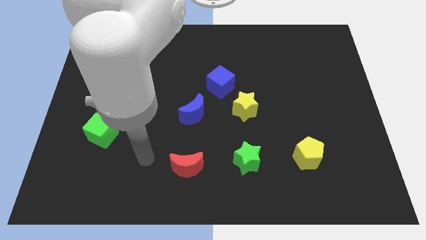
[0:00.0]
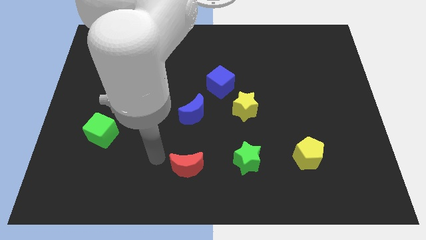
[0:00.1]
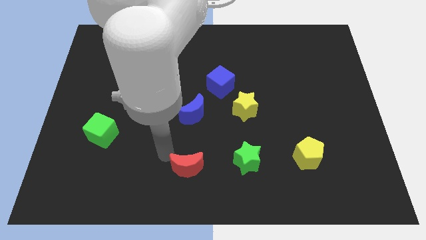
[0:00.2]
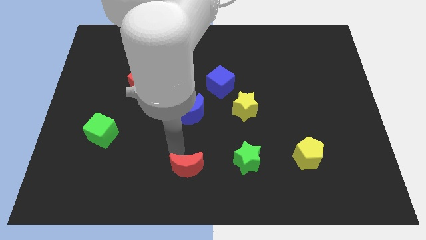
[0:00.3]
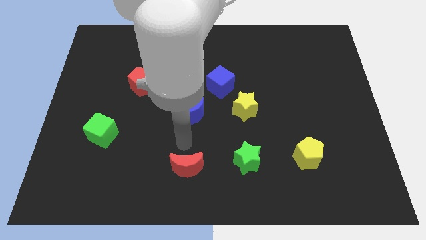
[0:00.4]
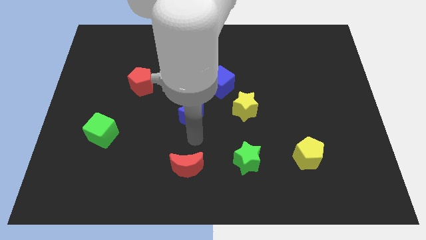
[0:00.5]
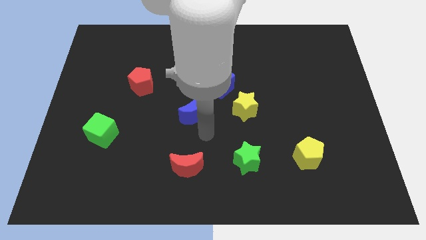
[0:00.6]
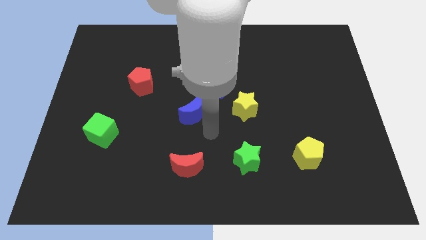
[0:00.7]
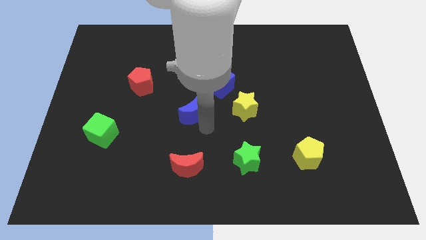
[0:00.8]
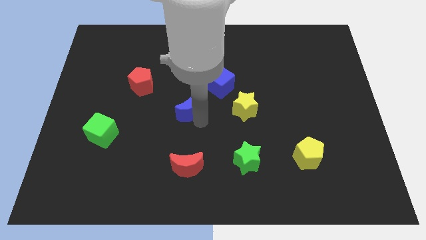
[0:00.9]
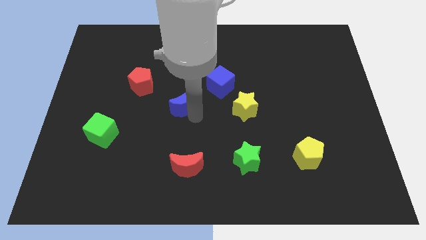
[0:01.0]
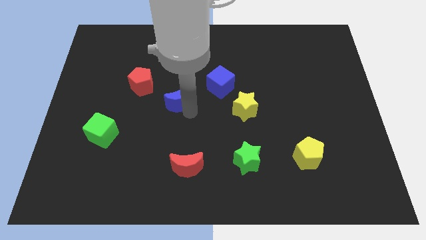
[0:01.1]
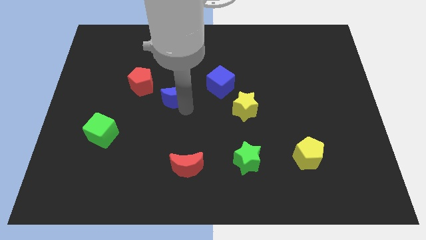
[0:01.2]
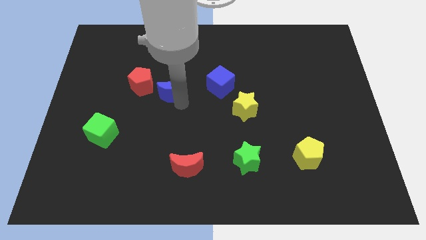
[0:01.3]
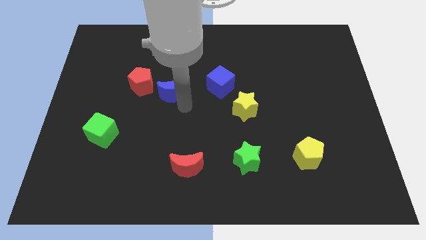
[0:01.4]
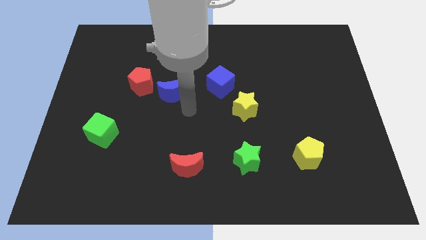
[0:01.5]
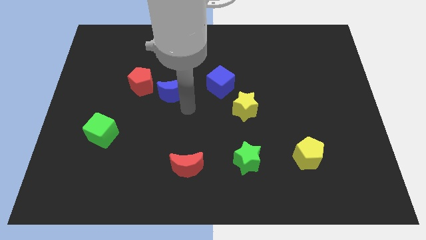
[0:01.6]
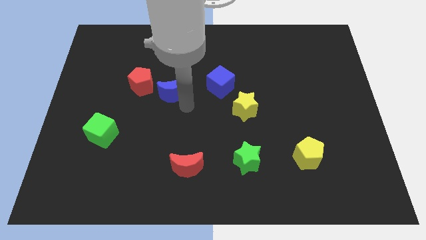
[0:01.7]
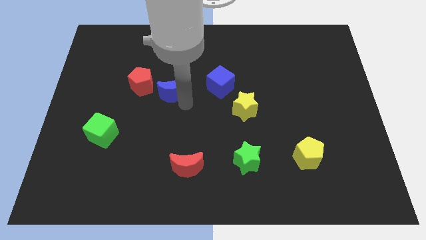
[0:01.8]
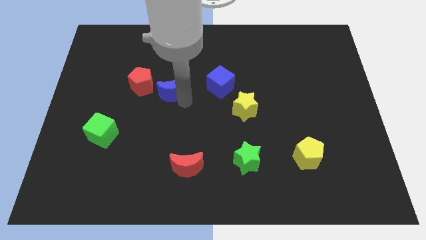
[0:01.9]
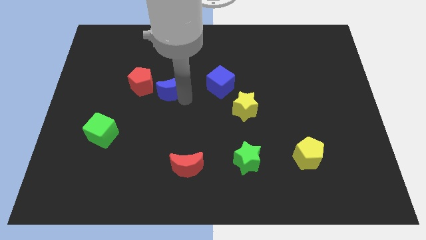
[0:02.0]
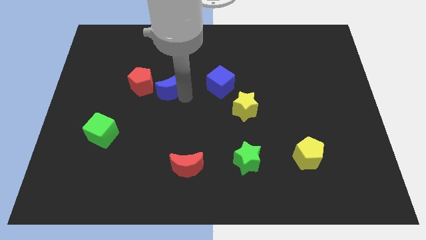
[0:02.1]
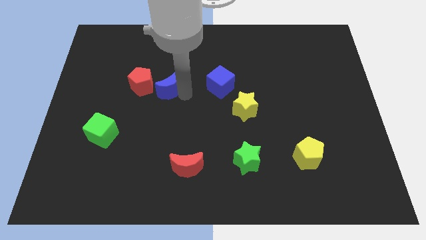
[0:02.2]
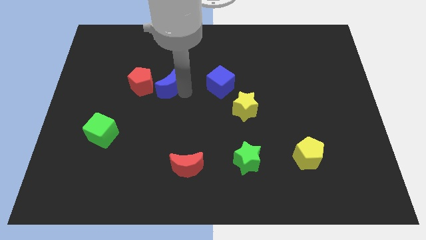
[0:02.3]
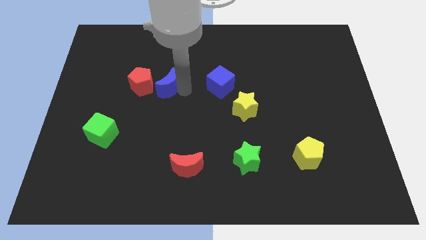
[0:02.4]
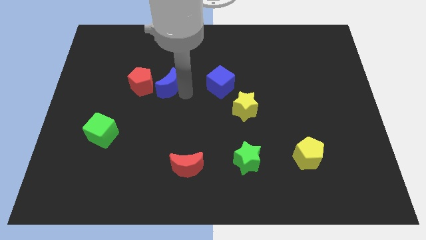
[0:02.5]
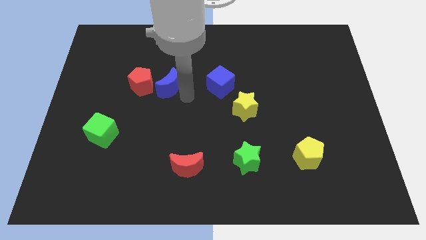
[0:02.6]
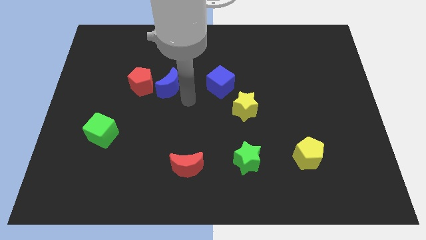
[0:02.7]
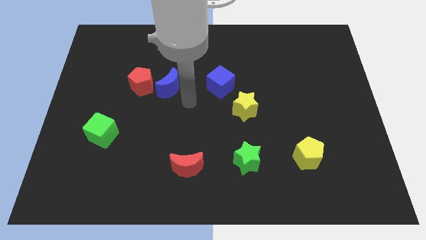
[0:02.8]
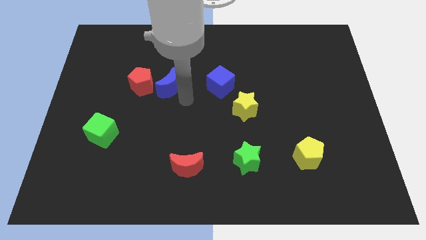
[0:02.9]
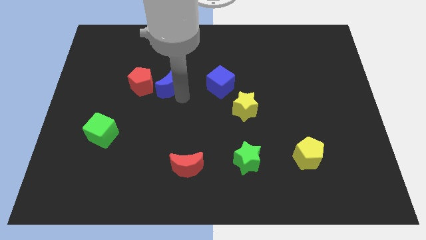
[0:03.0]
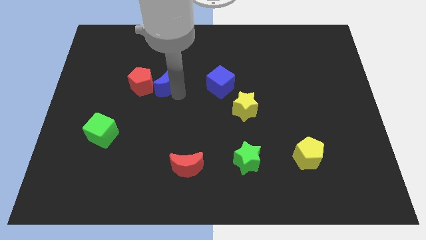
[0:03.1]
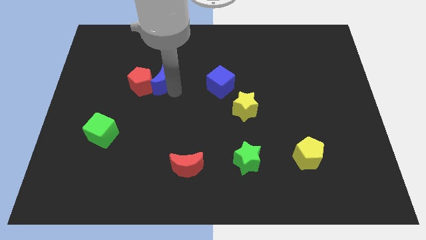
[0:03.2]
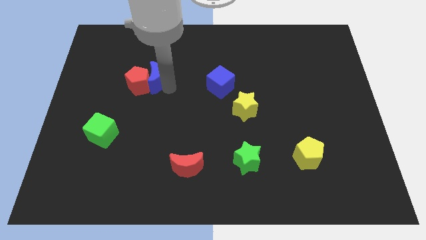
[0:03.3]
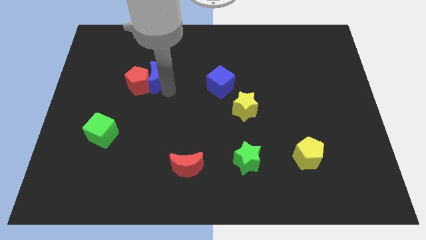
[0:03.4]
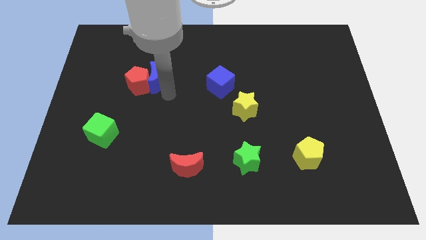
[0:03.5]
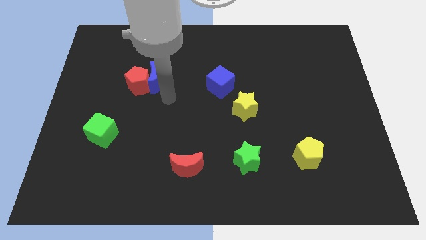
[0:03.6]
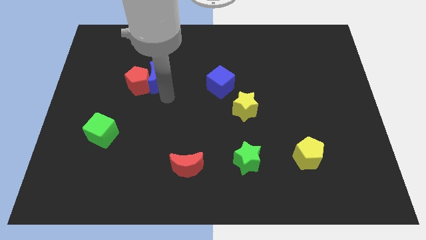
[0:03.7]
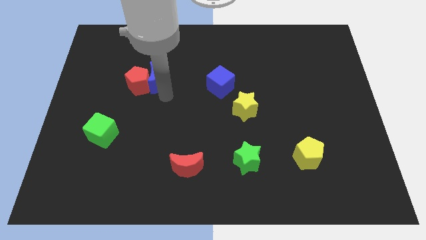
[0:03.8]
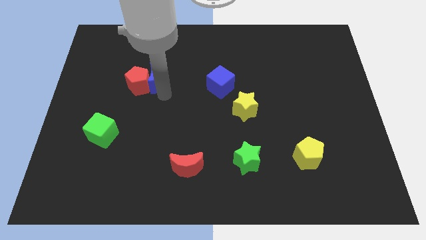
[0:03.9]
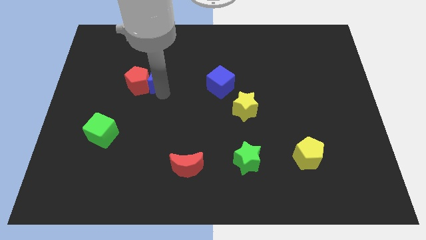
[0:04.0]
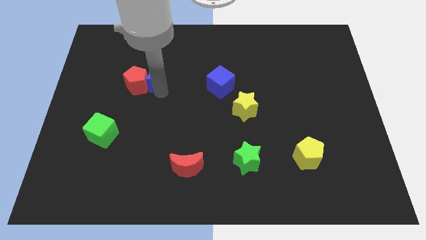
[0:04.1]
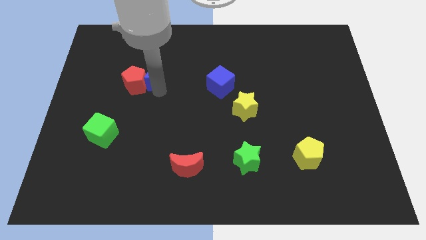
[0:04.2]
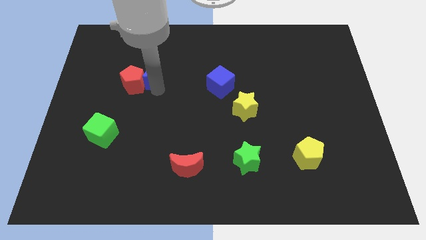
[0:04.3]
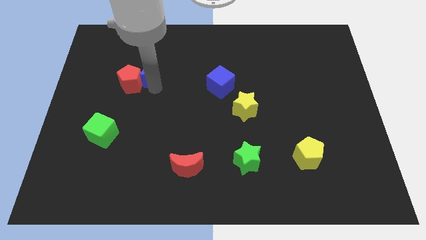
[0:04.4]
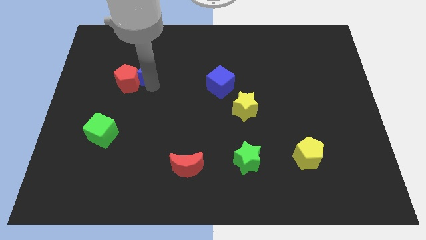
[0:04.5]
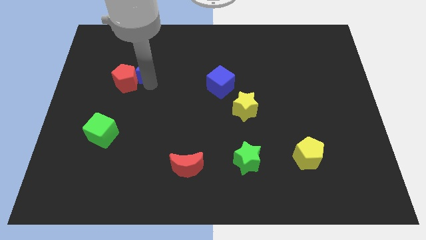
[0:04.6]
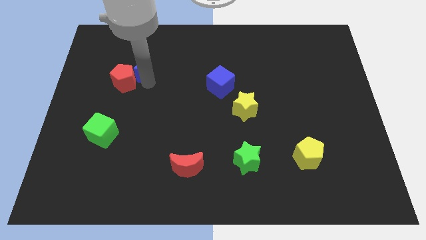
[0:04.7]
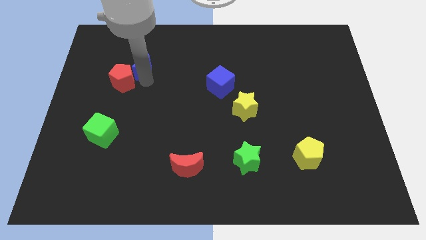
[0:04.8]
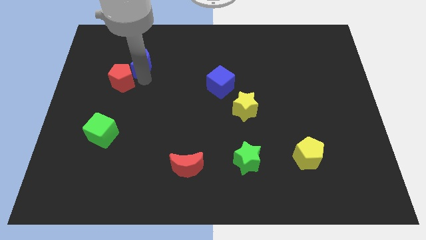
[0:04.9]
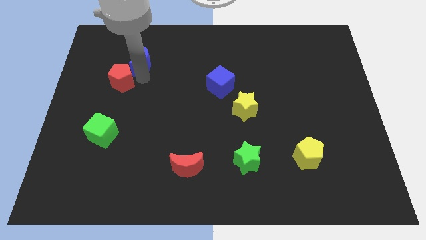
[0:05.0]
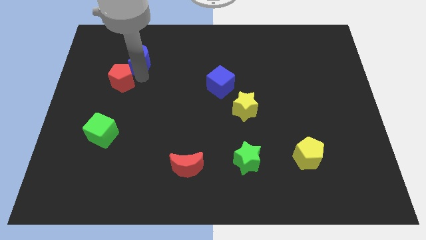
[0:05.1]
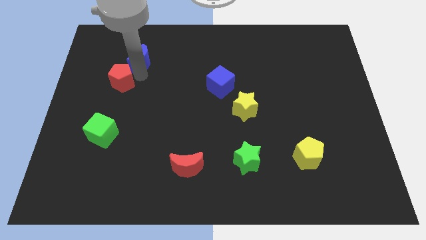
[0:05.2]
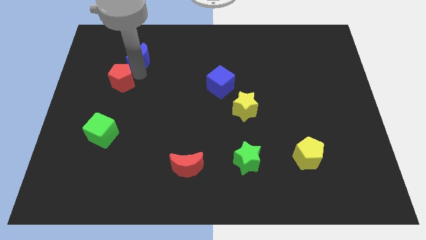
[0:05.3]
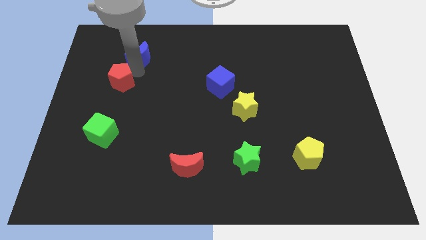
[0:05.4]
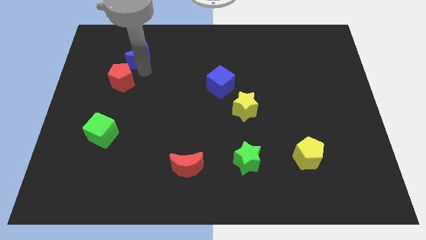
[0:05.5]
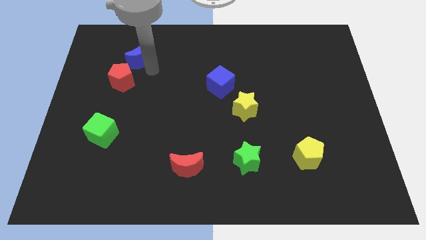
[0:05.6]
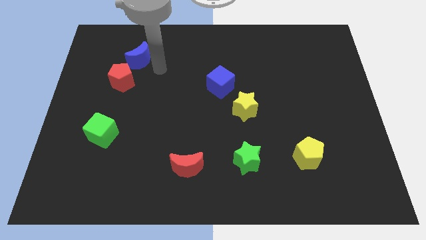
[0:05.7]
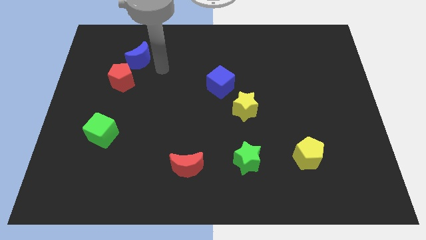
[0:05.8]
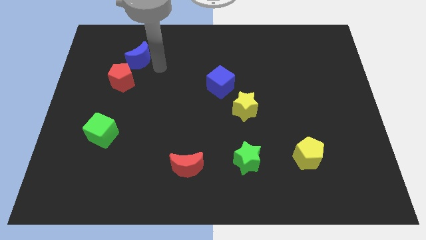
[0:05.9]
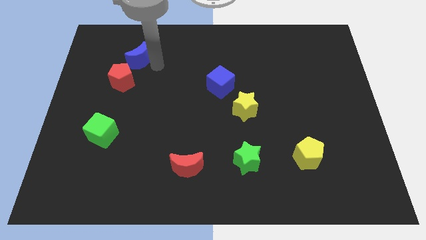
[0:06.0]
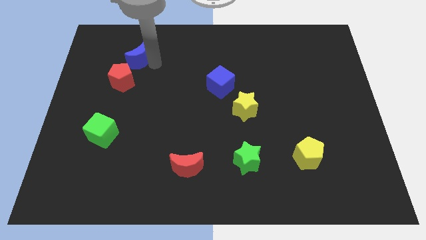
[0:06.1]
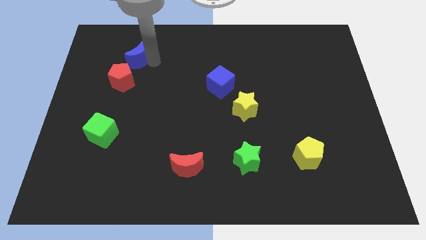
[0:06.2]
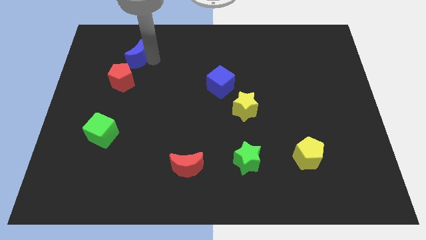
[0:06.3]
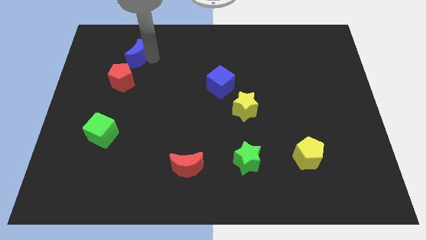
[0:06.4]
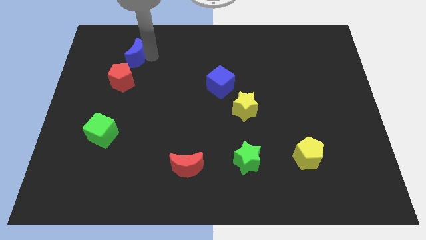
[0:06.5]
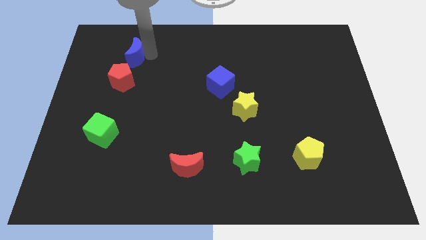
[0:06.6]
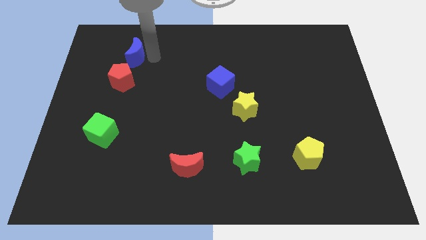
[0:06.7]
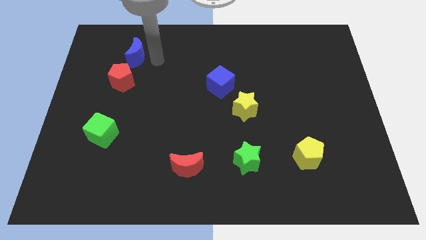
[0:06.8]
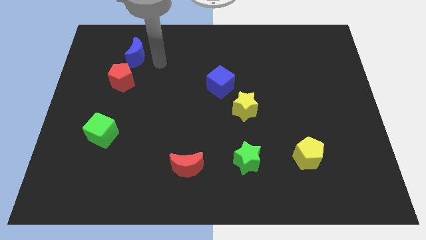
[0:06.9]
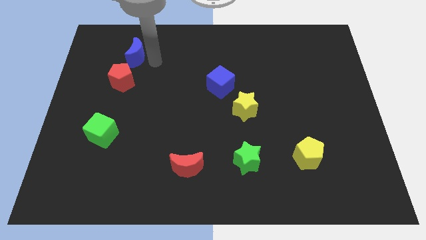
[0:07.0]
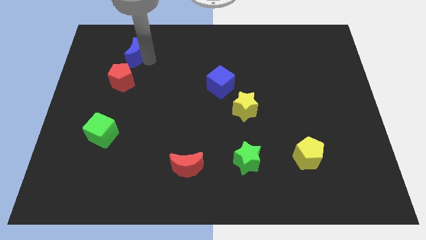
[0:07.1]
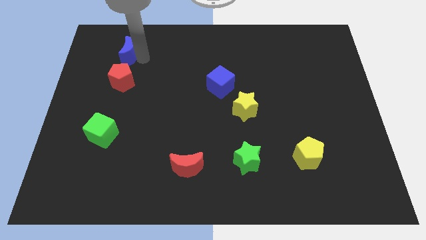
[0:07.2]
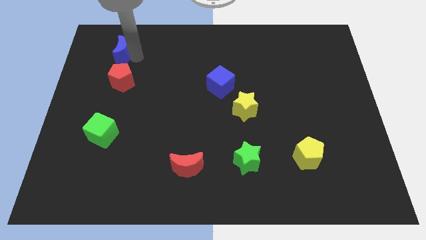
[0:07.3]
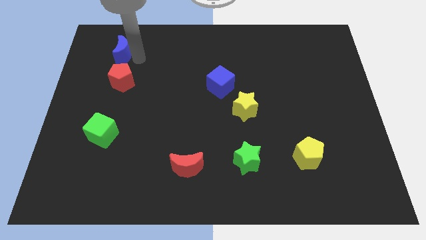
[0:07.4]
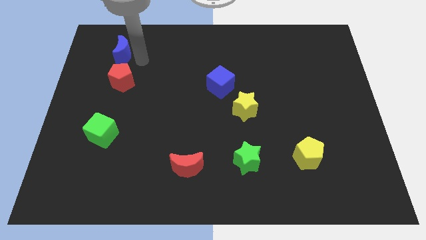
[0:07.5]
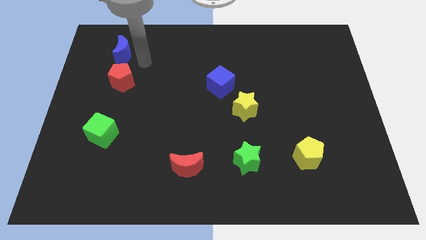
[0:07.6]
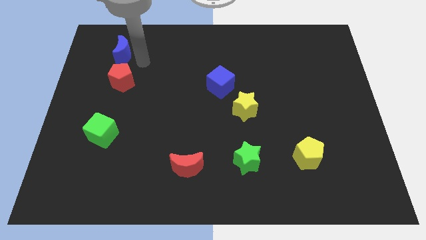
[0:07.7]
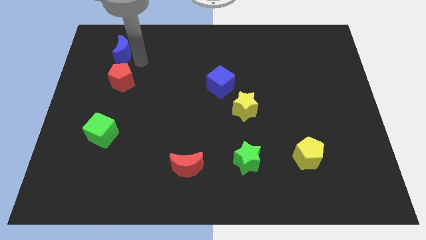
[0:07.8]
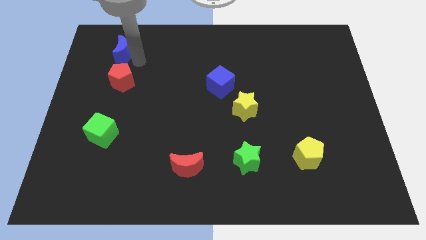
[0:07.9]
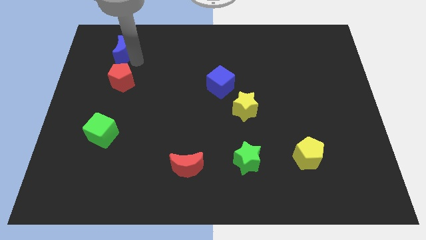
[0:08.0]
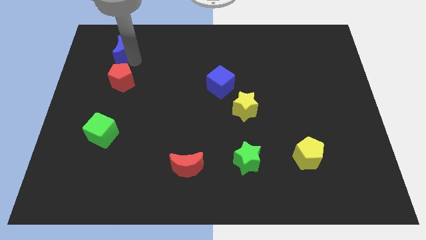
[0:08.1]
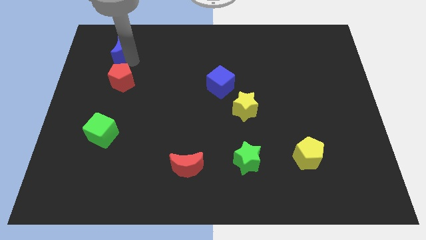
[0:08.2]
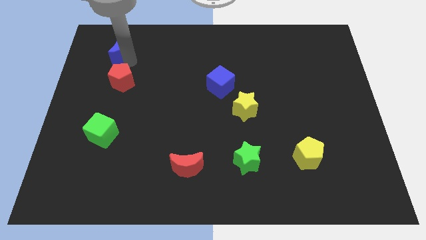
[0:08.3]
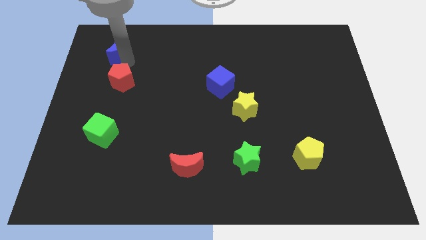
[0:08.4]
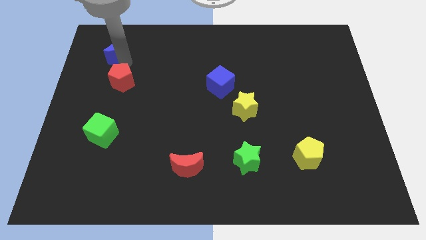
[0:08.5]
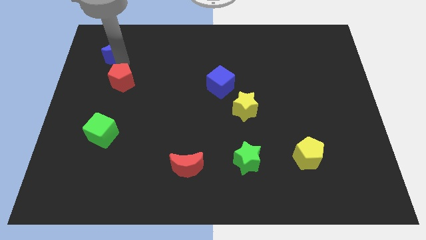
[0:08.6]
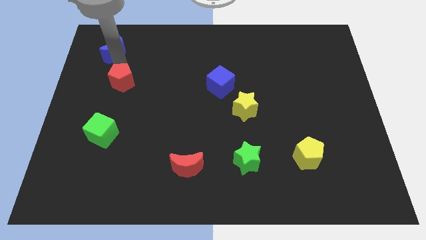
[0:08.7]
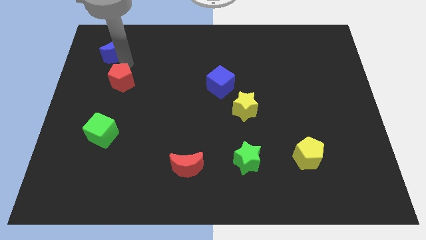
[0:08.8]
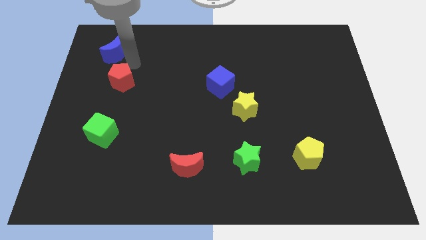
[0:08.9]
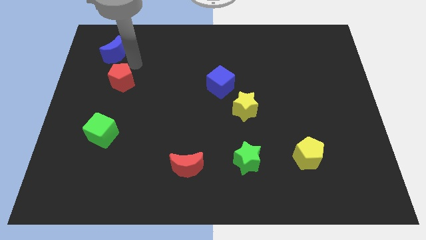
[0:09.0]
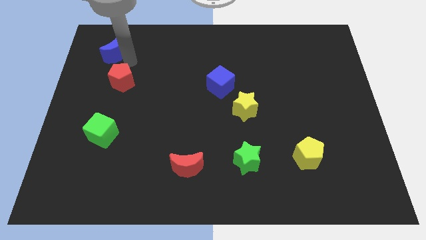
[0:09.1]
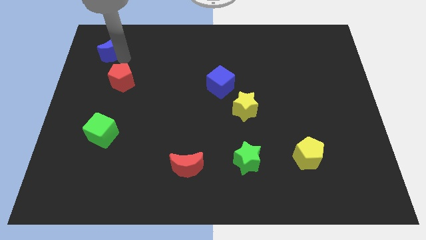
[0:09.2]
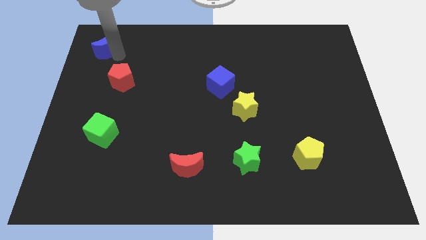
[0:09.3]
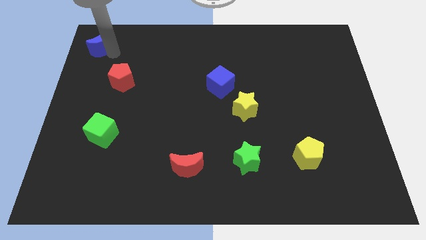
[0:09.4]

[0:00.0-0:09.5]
push the blue moon to the top left of the board
